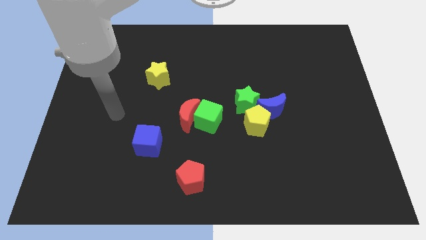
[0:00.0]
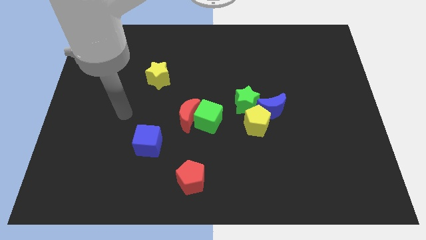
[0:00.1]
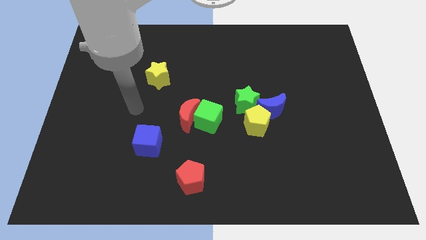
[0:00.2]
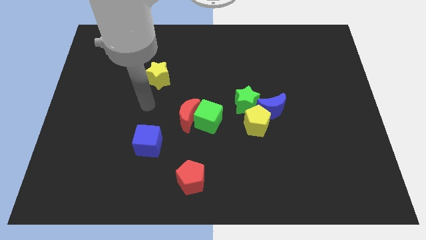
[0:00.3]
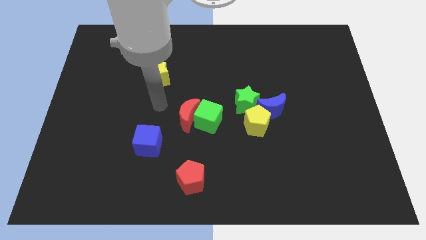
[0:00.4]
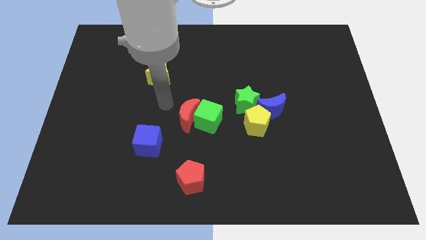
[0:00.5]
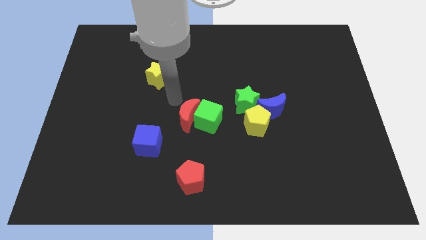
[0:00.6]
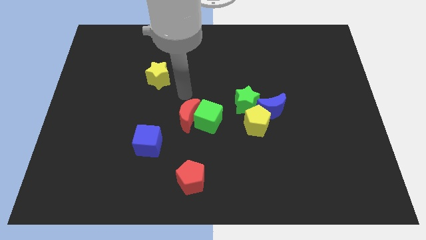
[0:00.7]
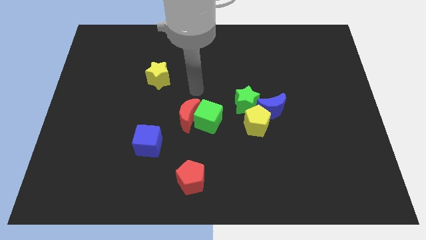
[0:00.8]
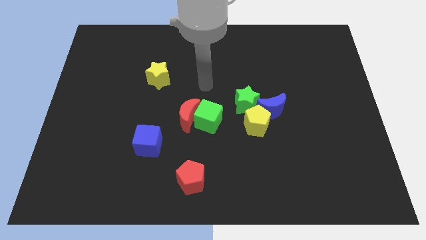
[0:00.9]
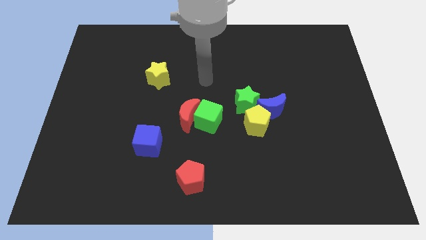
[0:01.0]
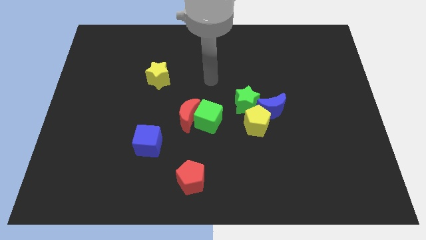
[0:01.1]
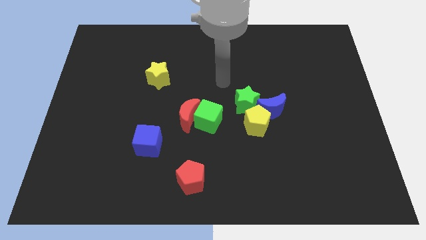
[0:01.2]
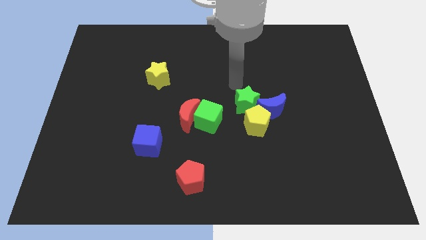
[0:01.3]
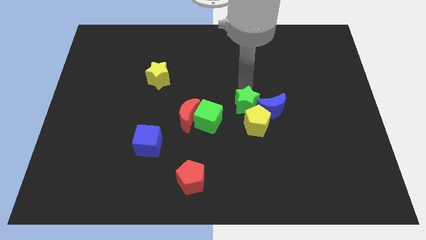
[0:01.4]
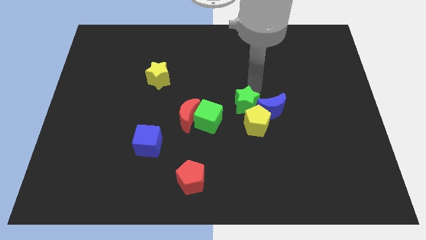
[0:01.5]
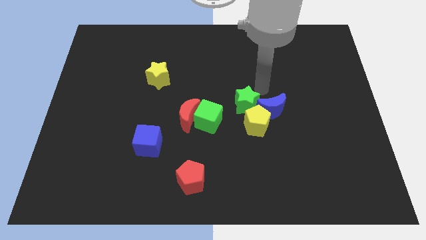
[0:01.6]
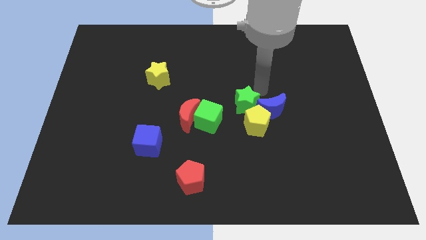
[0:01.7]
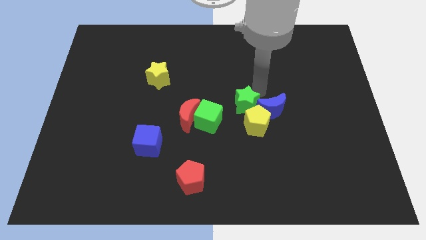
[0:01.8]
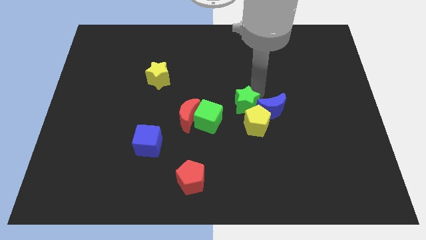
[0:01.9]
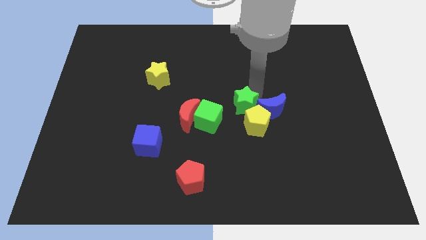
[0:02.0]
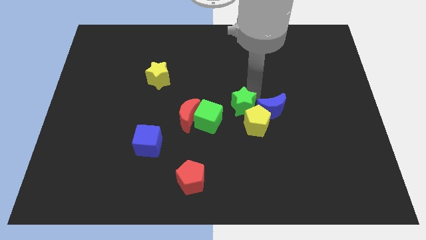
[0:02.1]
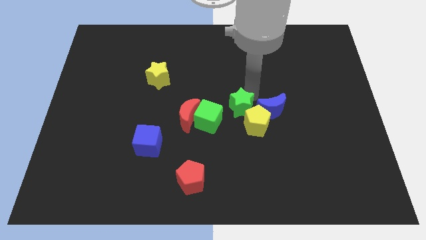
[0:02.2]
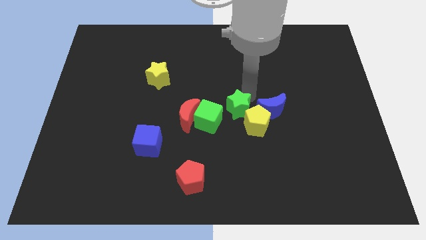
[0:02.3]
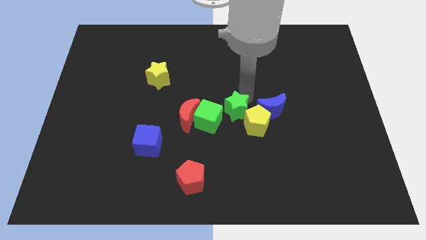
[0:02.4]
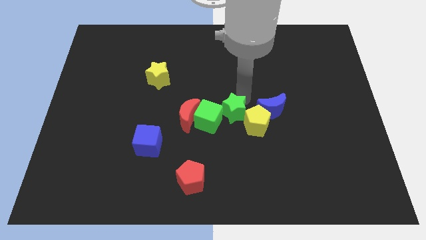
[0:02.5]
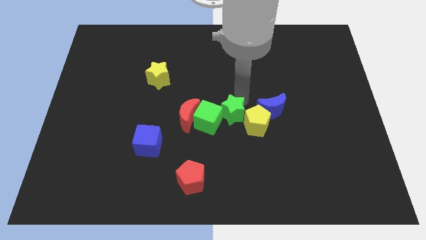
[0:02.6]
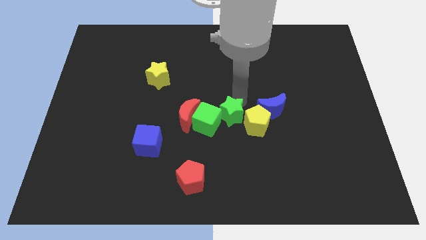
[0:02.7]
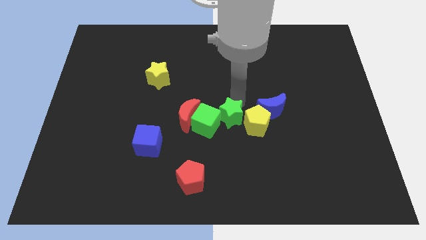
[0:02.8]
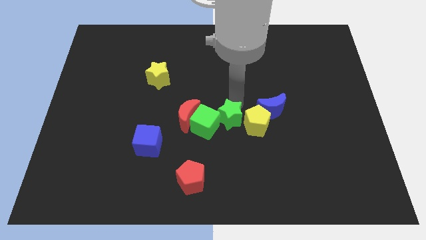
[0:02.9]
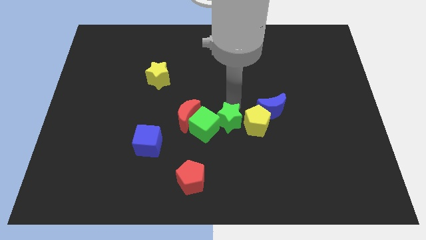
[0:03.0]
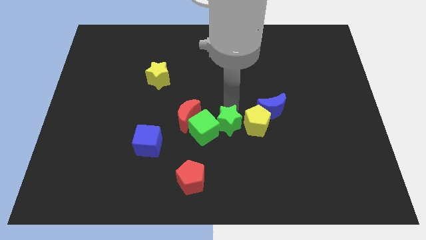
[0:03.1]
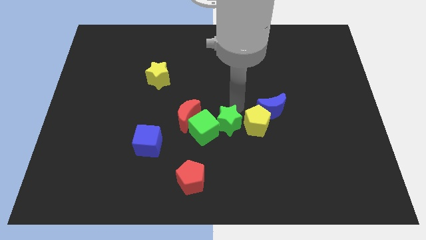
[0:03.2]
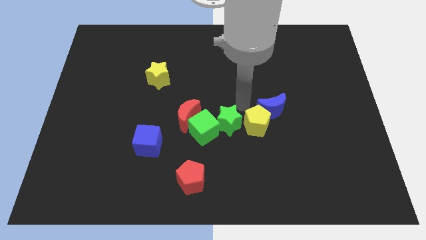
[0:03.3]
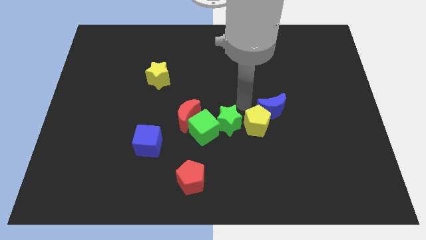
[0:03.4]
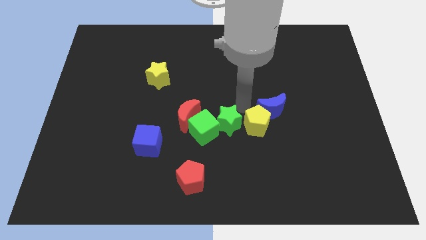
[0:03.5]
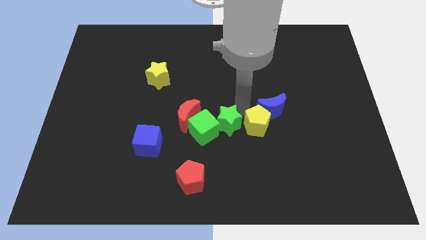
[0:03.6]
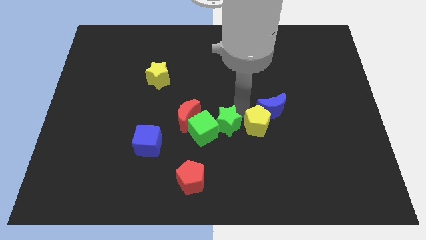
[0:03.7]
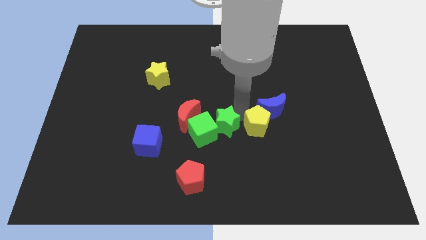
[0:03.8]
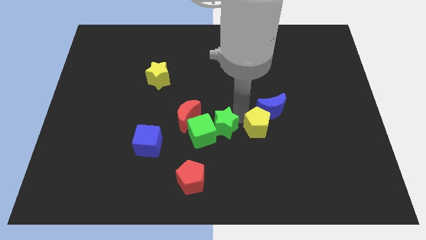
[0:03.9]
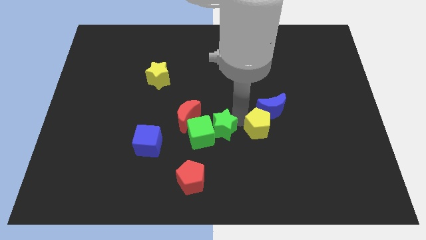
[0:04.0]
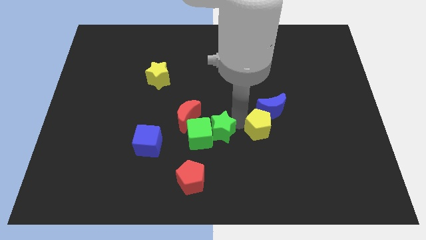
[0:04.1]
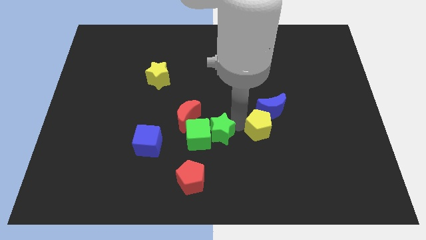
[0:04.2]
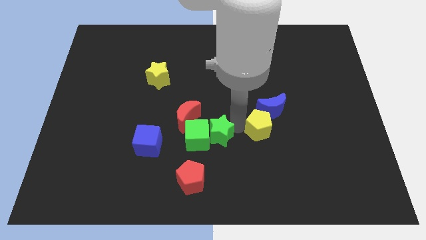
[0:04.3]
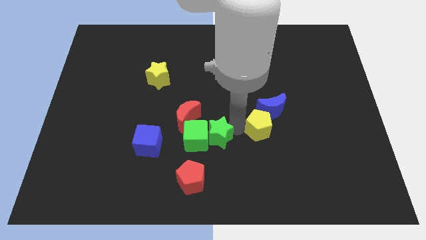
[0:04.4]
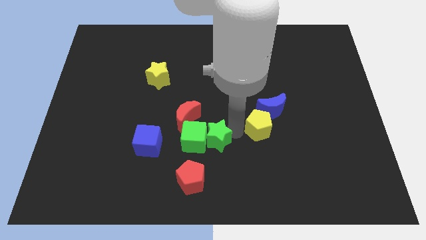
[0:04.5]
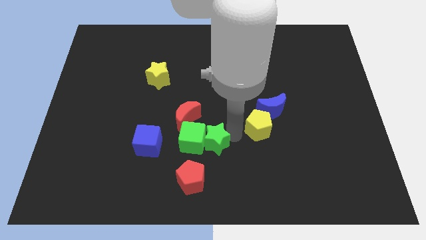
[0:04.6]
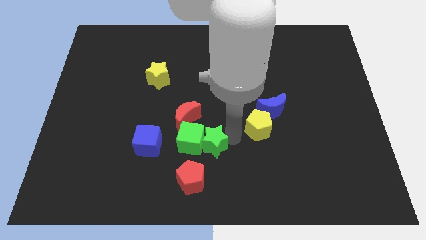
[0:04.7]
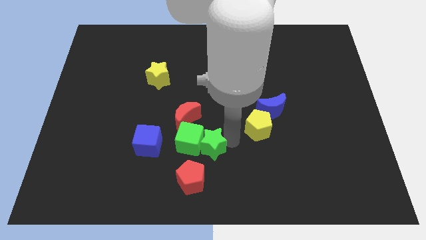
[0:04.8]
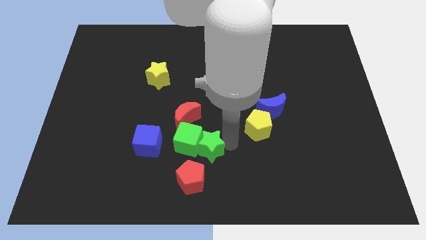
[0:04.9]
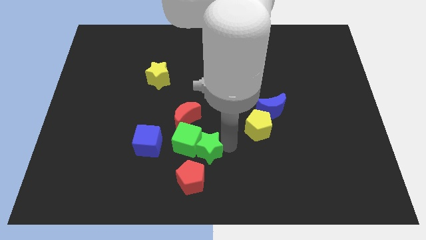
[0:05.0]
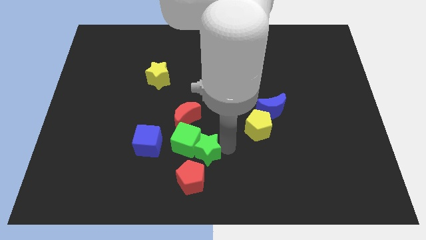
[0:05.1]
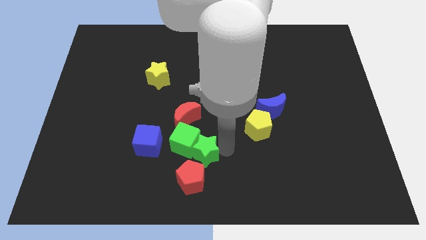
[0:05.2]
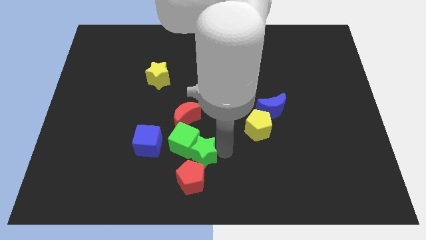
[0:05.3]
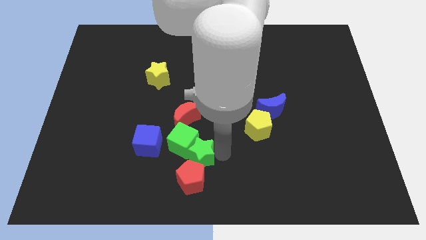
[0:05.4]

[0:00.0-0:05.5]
push the green star close to the red pentagon

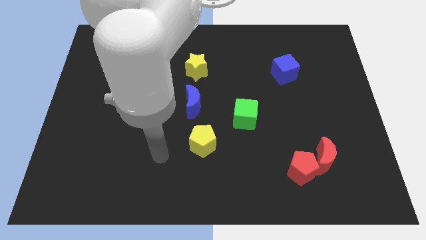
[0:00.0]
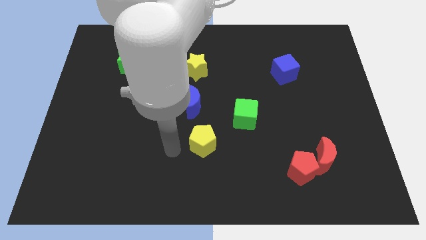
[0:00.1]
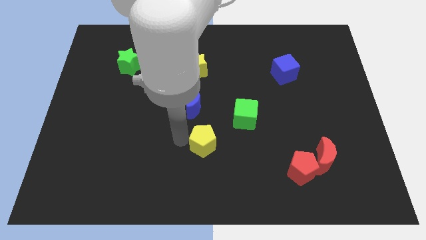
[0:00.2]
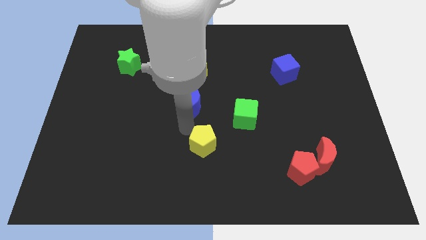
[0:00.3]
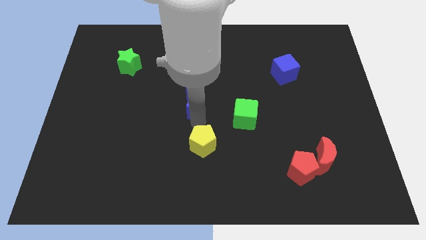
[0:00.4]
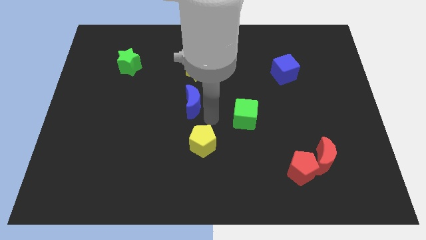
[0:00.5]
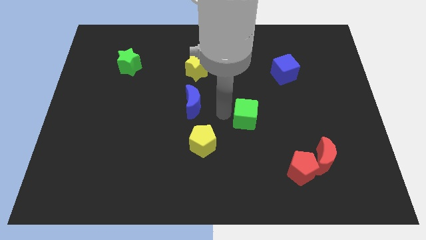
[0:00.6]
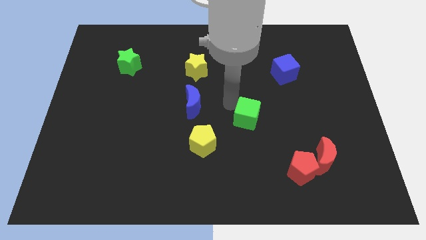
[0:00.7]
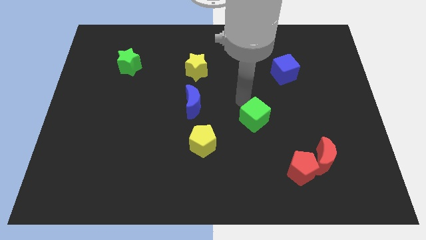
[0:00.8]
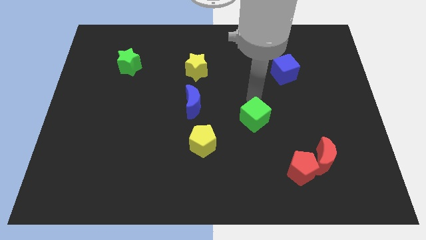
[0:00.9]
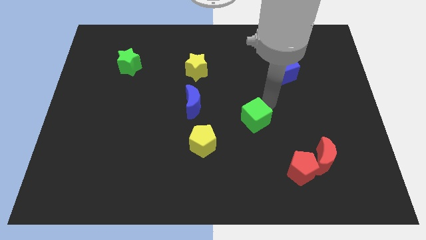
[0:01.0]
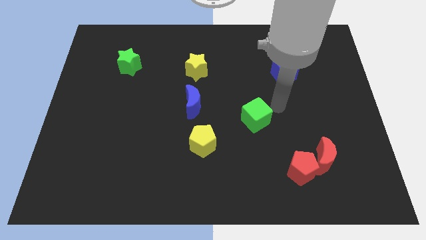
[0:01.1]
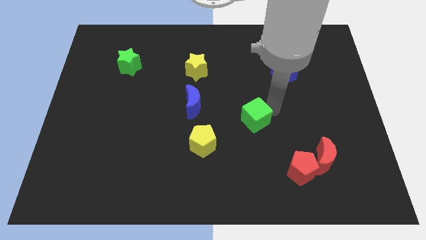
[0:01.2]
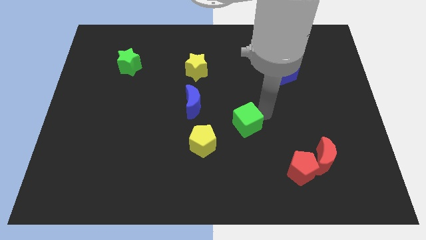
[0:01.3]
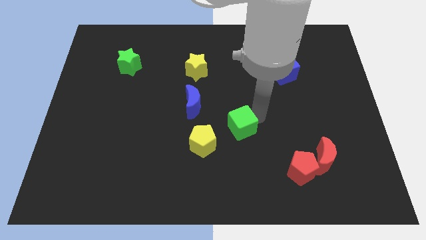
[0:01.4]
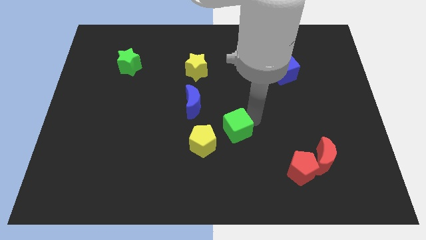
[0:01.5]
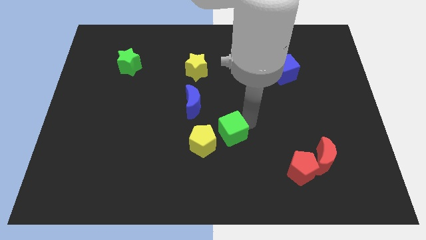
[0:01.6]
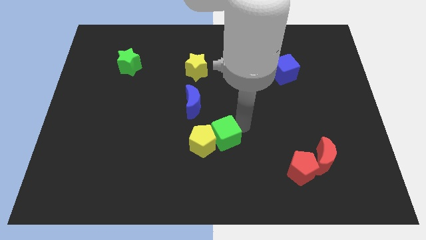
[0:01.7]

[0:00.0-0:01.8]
put the green cube next to the yellow pentagon
